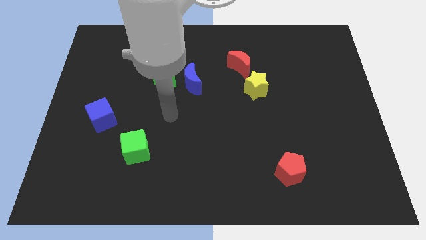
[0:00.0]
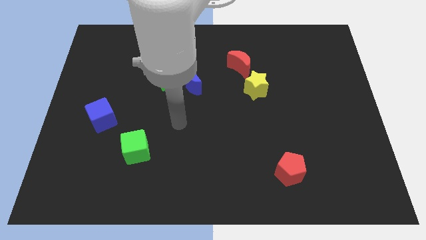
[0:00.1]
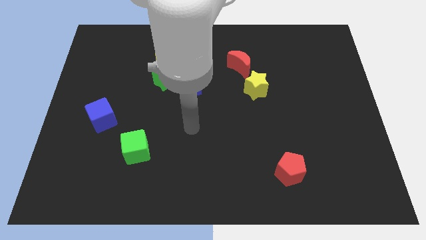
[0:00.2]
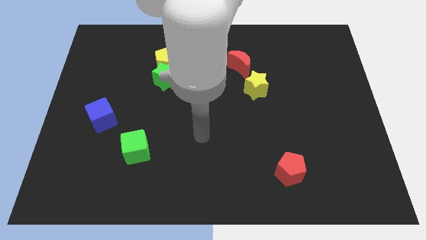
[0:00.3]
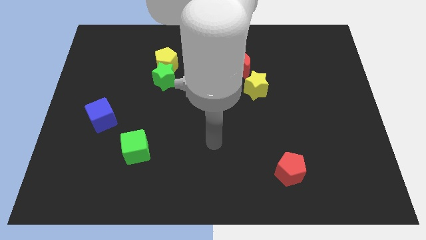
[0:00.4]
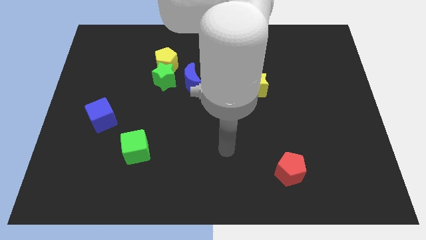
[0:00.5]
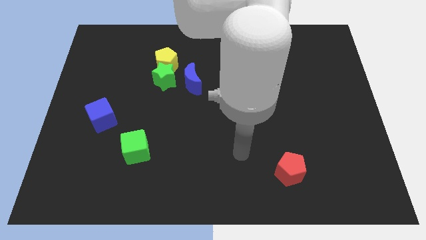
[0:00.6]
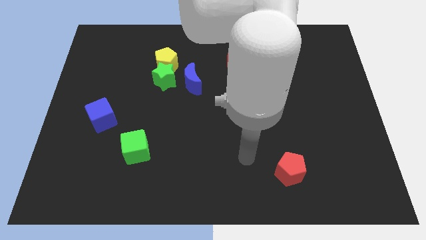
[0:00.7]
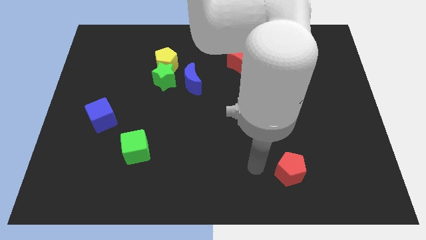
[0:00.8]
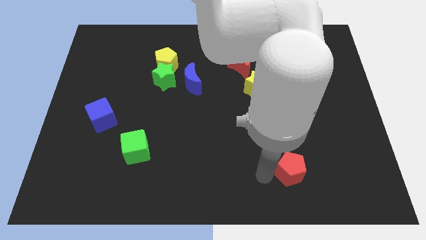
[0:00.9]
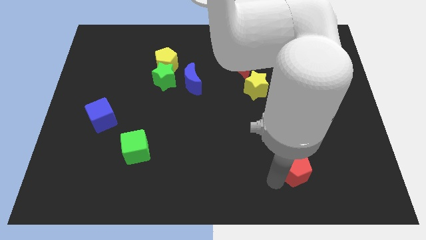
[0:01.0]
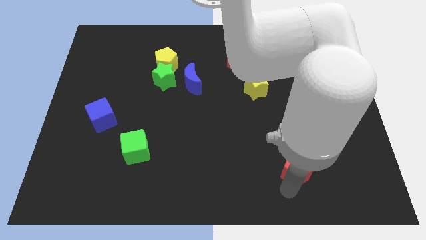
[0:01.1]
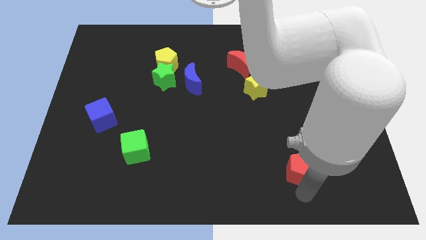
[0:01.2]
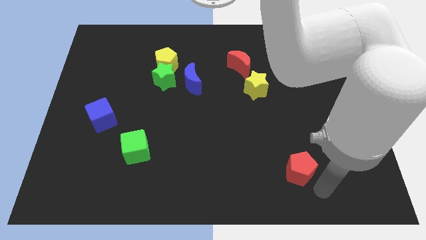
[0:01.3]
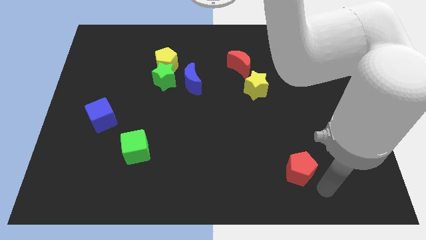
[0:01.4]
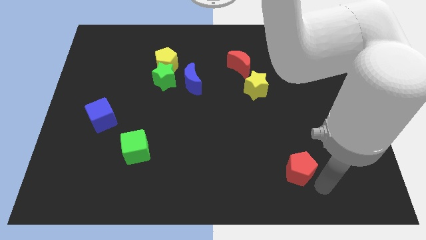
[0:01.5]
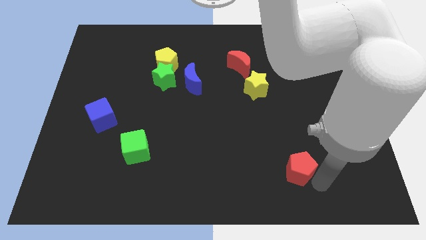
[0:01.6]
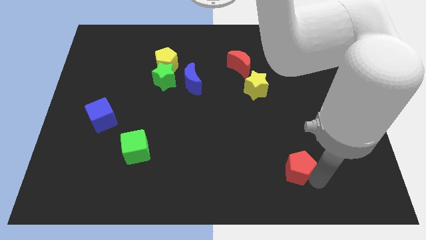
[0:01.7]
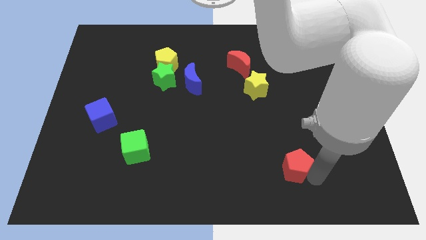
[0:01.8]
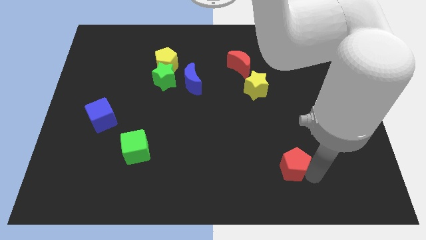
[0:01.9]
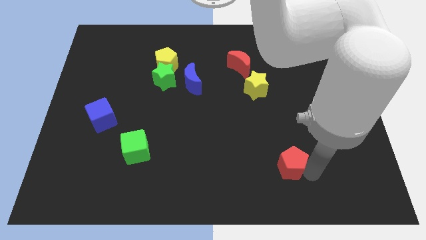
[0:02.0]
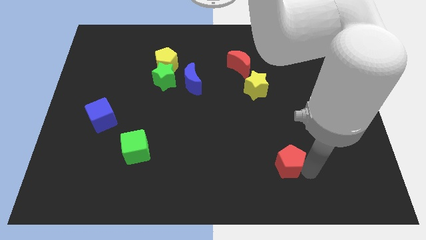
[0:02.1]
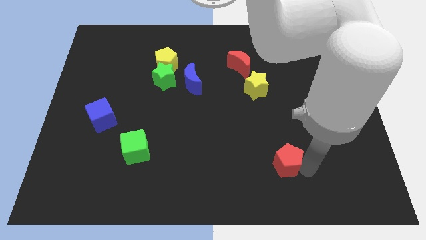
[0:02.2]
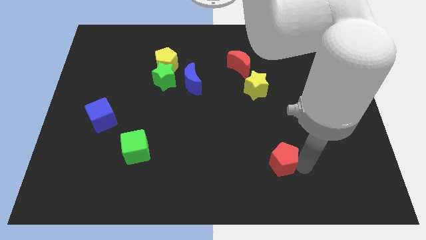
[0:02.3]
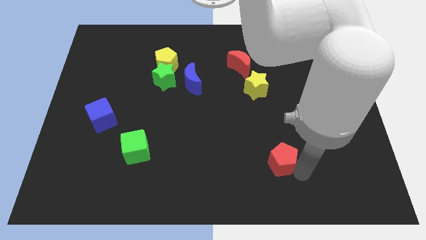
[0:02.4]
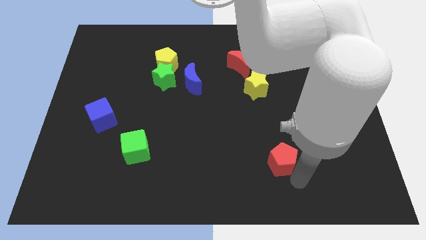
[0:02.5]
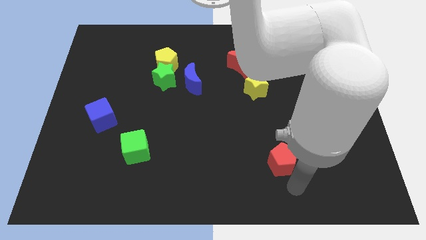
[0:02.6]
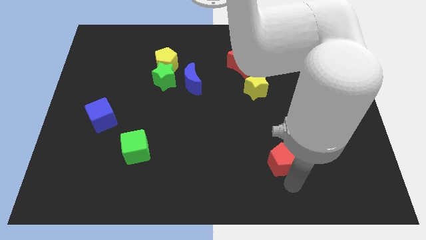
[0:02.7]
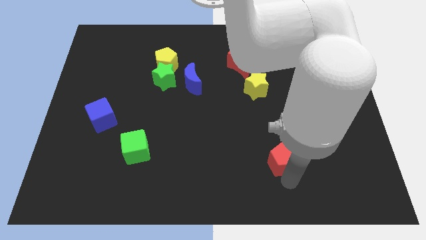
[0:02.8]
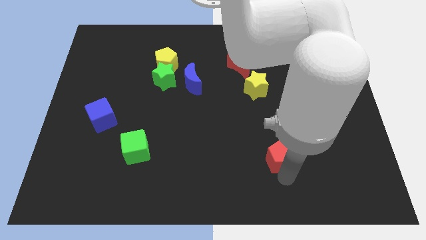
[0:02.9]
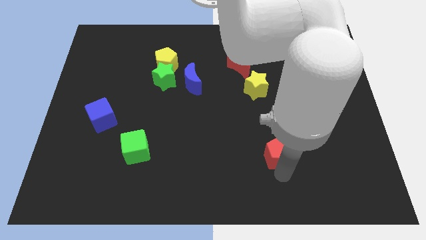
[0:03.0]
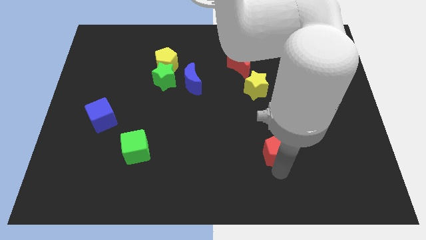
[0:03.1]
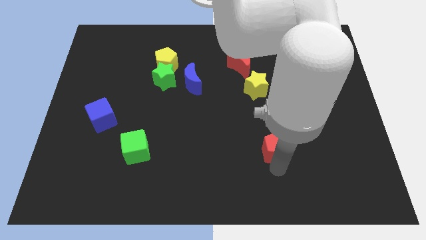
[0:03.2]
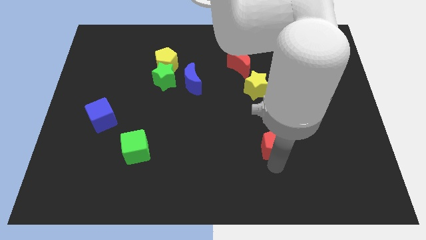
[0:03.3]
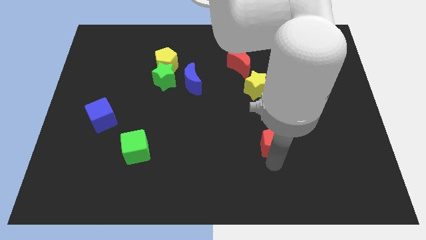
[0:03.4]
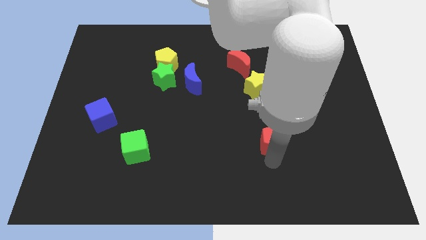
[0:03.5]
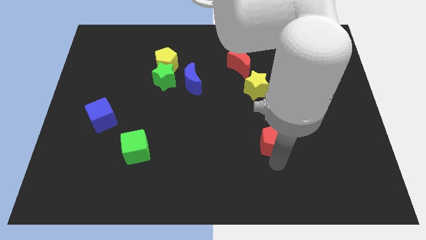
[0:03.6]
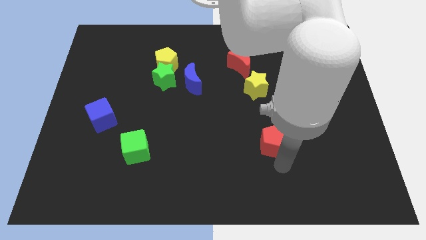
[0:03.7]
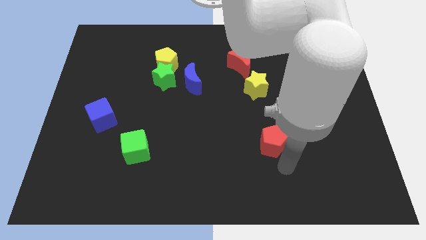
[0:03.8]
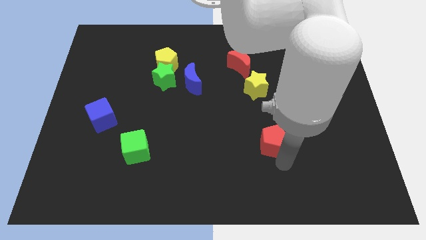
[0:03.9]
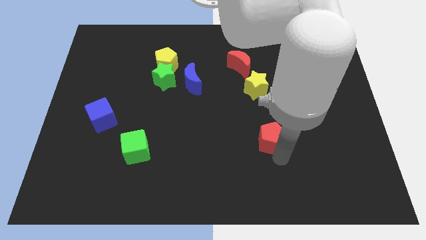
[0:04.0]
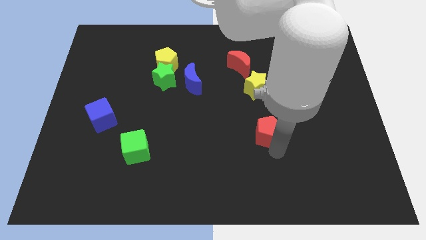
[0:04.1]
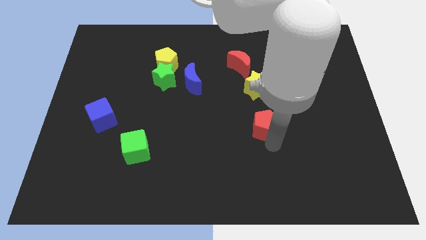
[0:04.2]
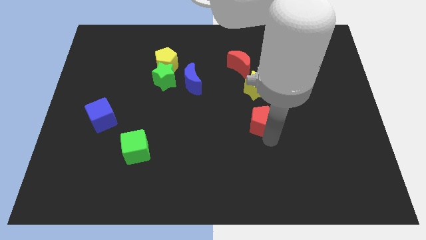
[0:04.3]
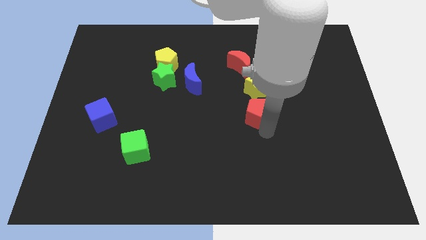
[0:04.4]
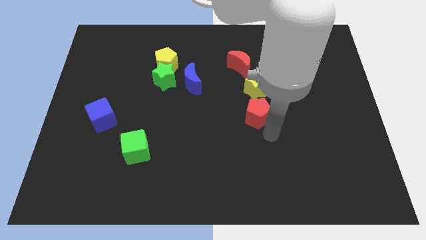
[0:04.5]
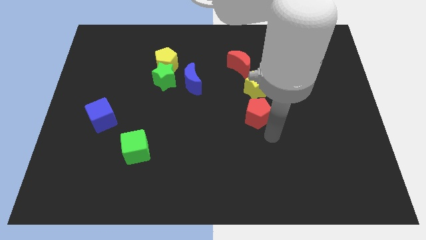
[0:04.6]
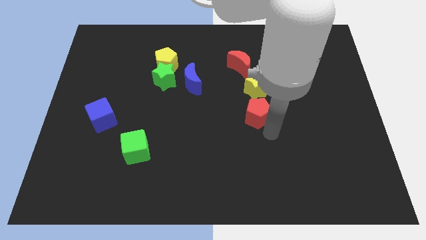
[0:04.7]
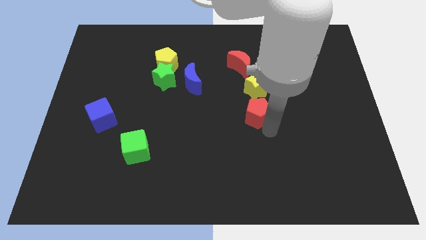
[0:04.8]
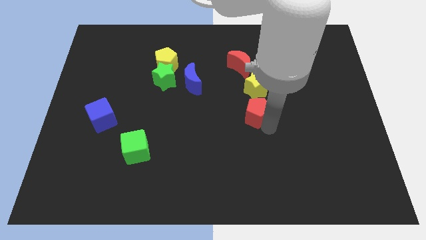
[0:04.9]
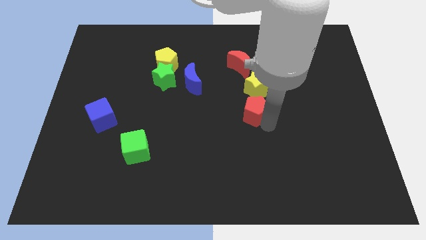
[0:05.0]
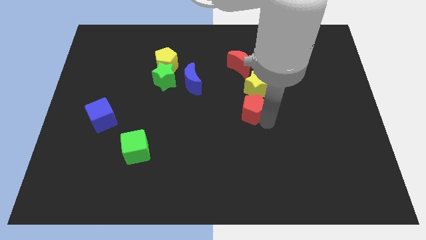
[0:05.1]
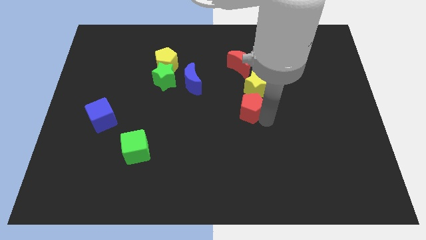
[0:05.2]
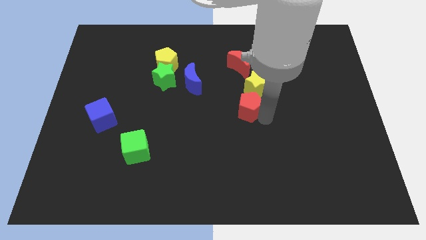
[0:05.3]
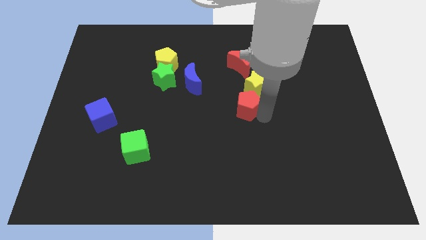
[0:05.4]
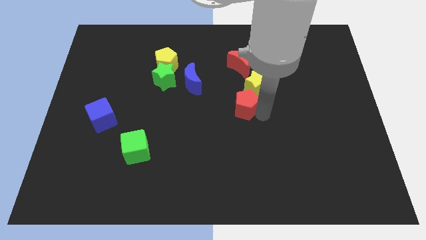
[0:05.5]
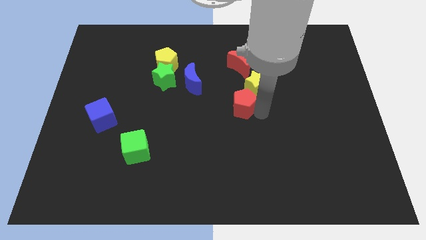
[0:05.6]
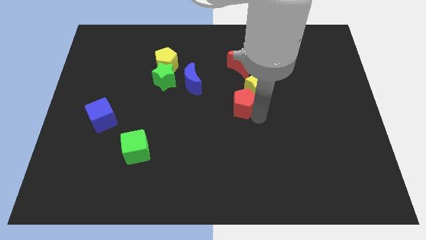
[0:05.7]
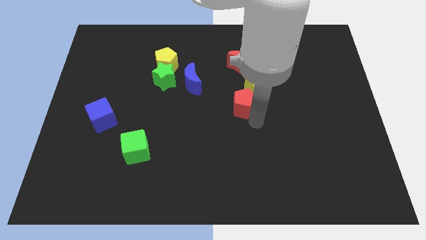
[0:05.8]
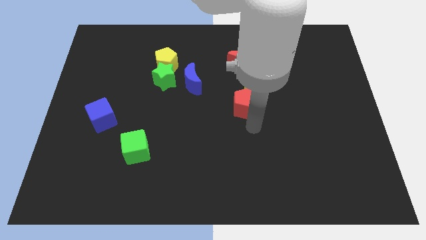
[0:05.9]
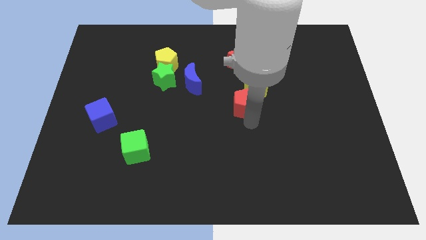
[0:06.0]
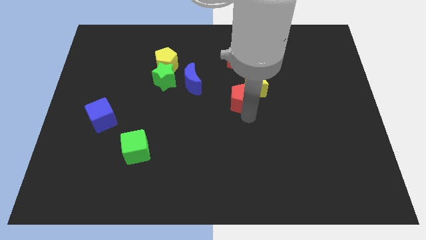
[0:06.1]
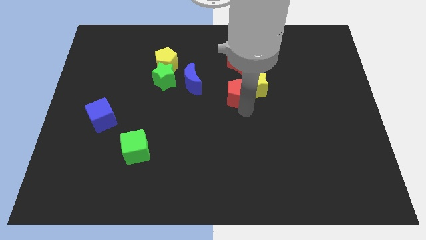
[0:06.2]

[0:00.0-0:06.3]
push the red pentagon just right of the blue moon

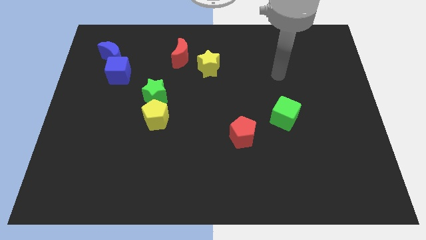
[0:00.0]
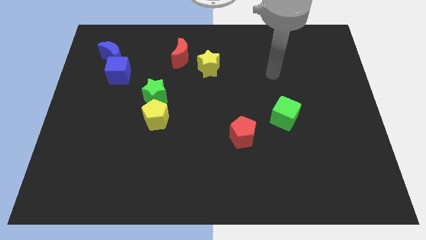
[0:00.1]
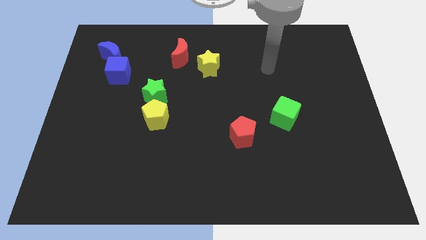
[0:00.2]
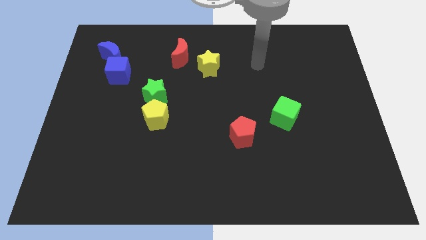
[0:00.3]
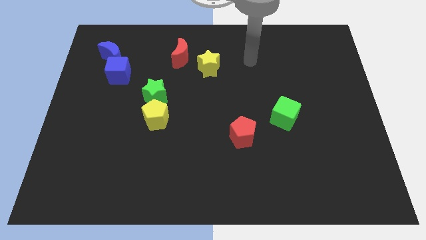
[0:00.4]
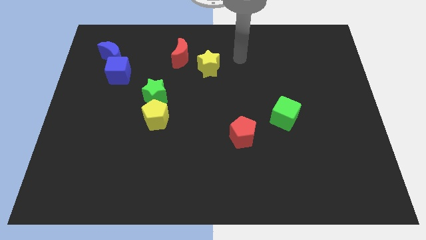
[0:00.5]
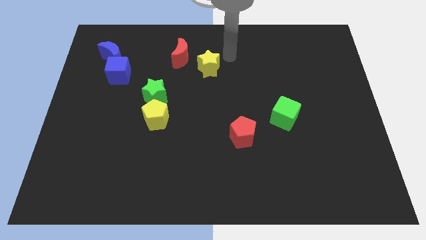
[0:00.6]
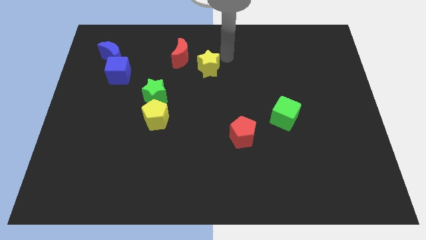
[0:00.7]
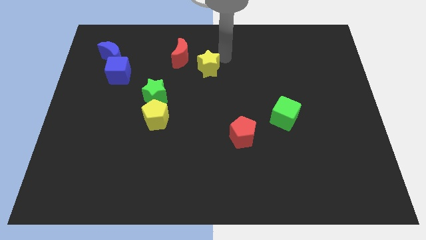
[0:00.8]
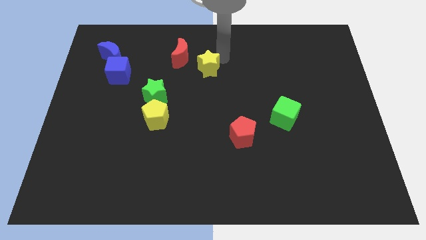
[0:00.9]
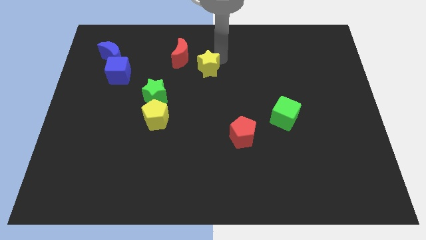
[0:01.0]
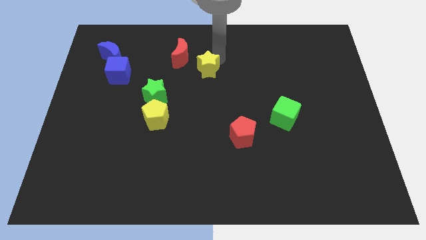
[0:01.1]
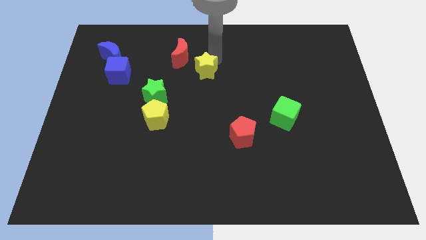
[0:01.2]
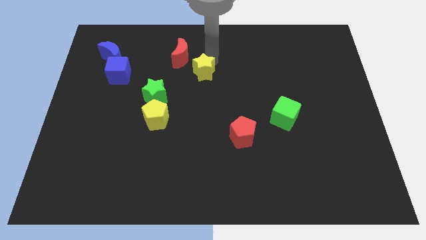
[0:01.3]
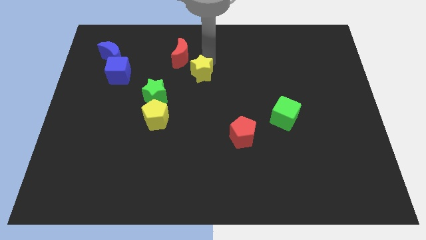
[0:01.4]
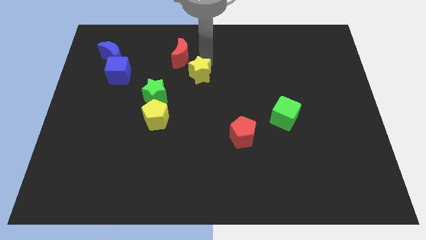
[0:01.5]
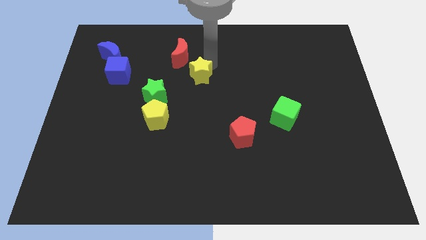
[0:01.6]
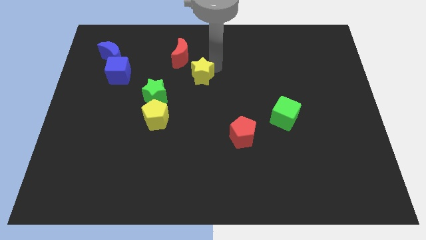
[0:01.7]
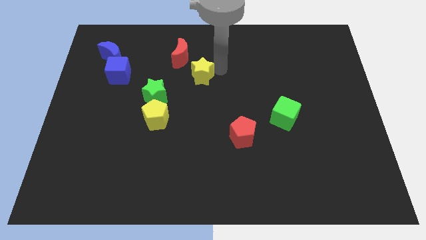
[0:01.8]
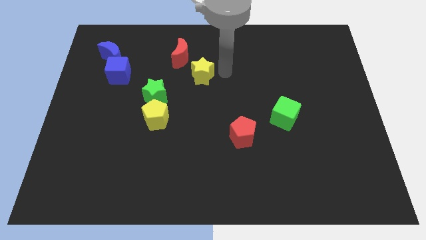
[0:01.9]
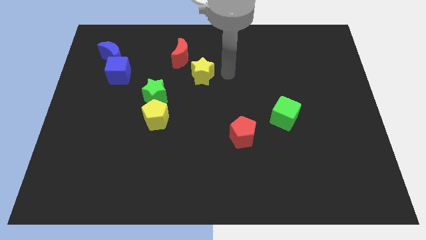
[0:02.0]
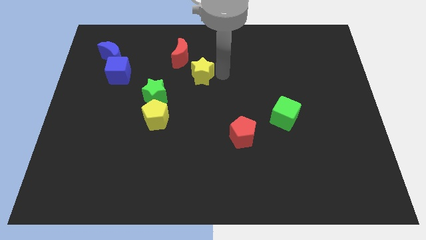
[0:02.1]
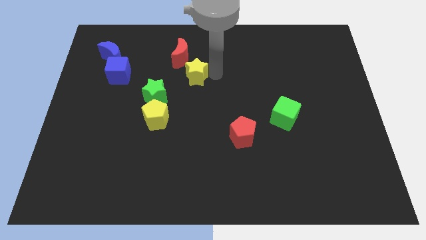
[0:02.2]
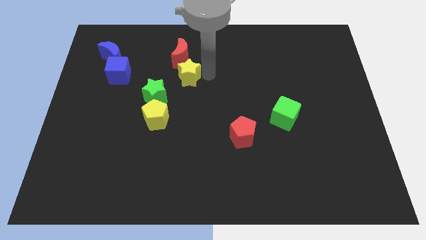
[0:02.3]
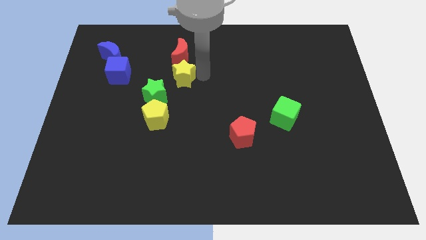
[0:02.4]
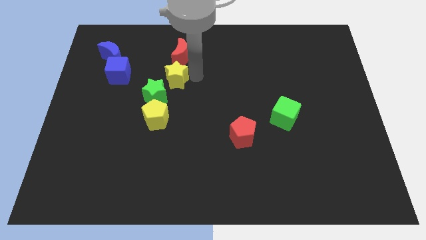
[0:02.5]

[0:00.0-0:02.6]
put the yellow star to the right of the blue cube
